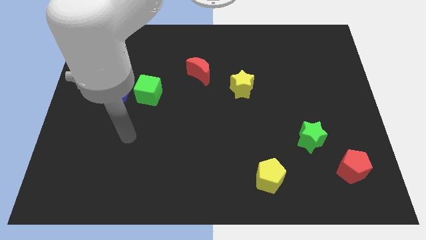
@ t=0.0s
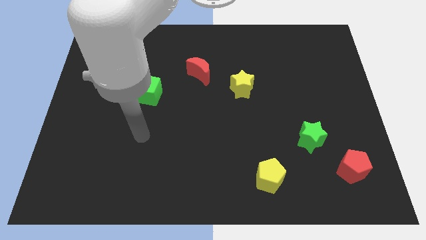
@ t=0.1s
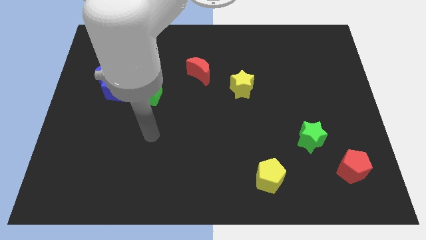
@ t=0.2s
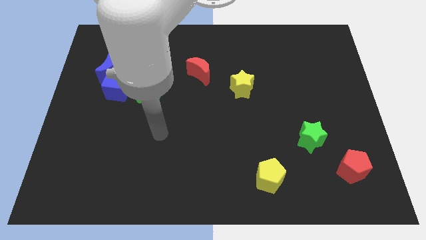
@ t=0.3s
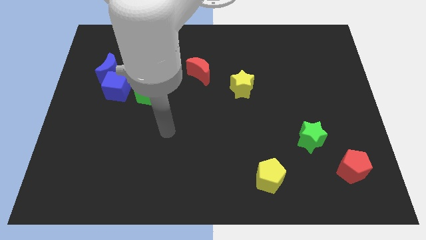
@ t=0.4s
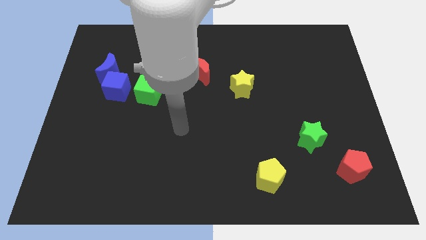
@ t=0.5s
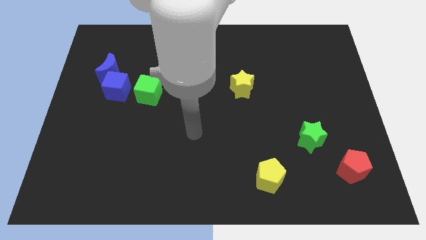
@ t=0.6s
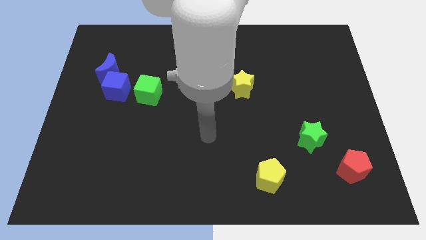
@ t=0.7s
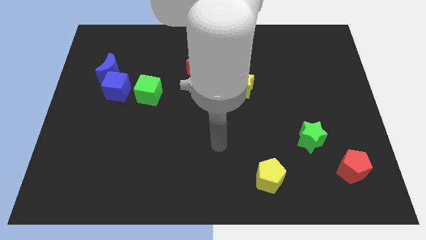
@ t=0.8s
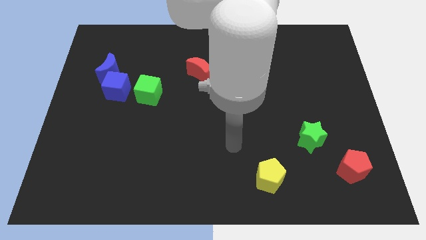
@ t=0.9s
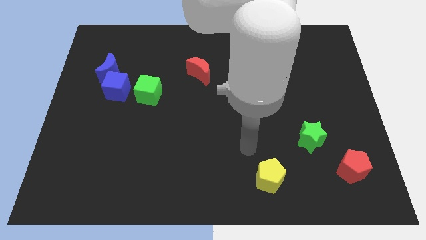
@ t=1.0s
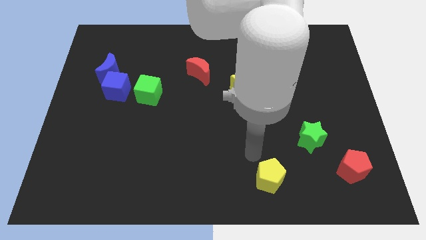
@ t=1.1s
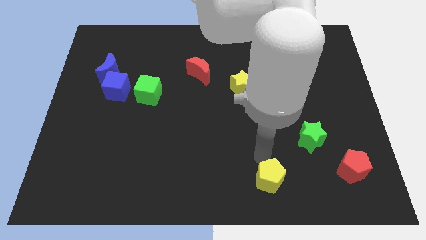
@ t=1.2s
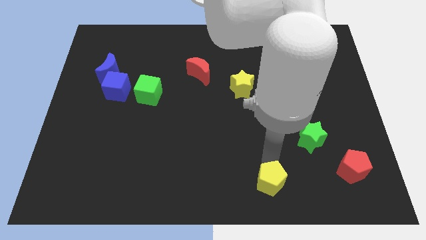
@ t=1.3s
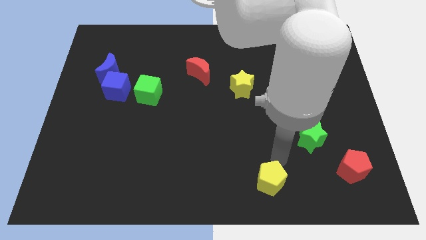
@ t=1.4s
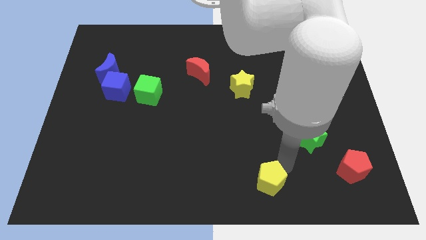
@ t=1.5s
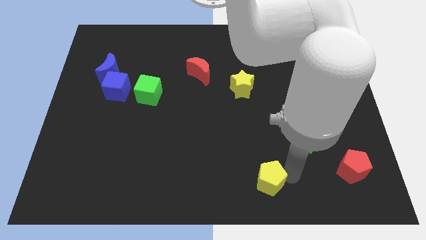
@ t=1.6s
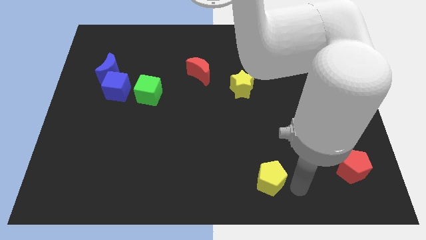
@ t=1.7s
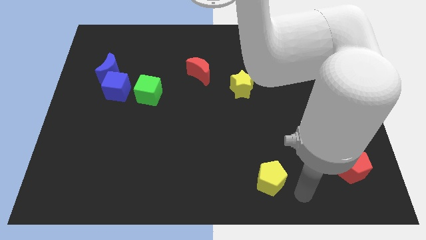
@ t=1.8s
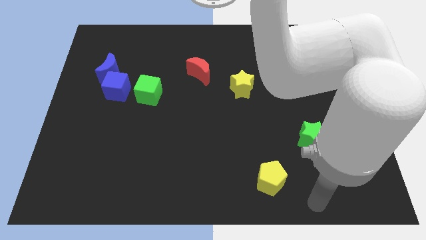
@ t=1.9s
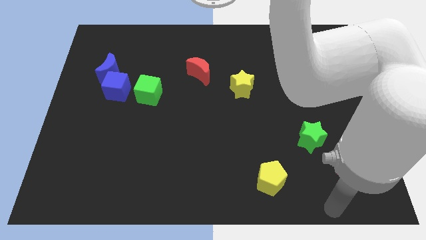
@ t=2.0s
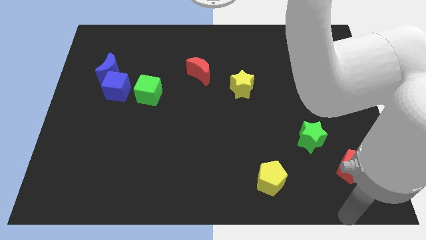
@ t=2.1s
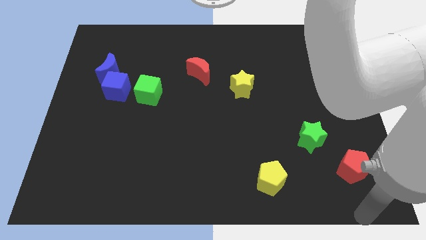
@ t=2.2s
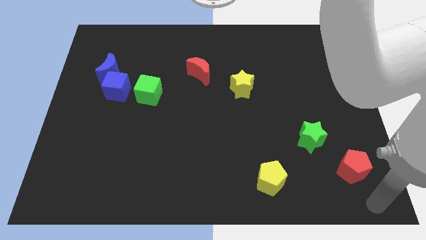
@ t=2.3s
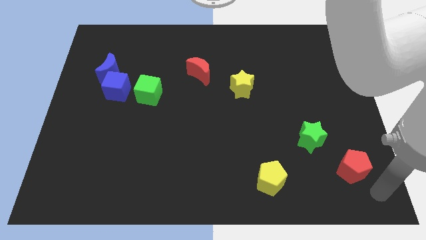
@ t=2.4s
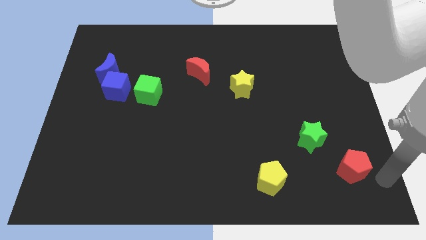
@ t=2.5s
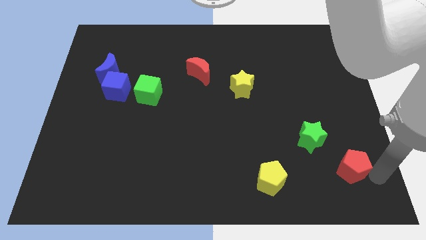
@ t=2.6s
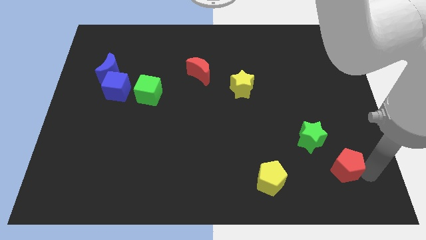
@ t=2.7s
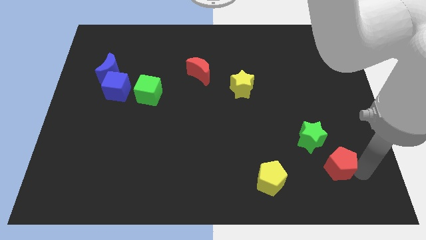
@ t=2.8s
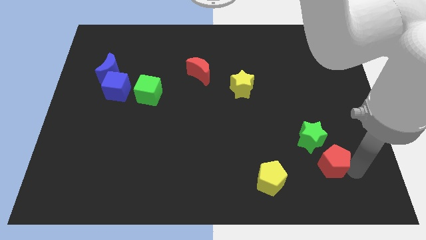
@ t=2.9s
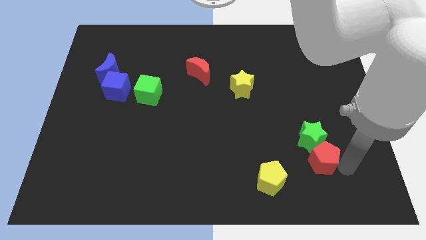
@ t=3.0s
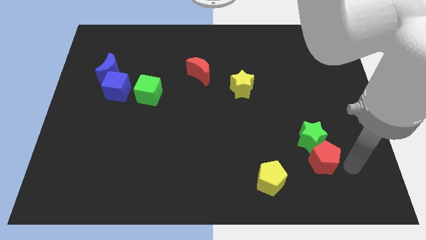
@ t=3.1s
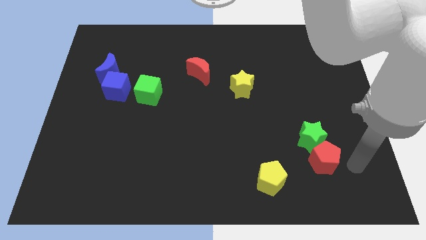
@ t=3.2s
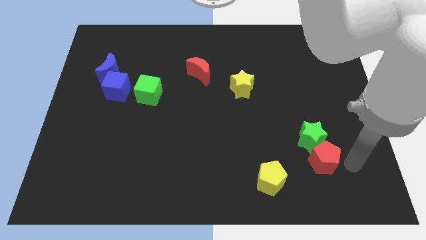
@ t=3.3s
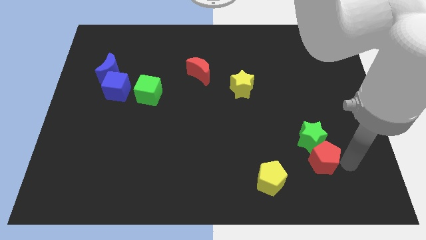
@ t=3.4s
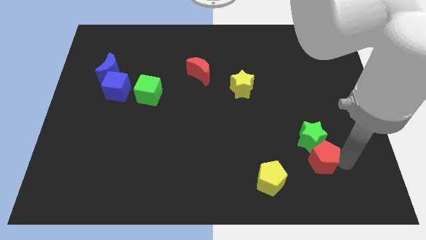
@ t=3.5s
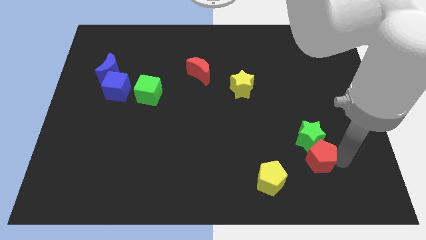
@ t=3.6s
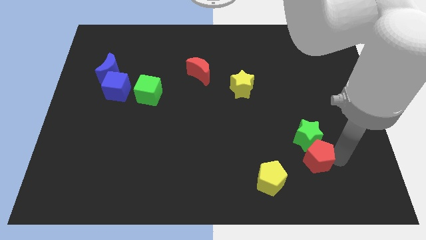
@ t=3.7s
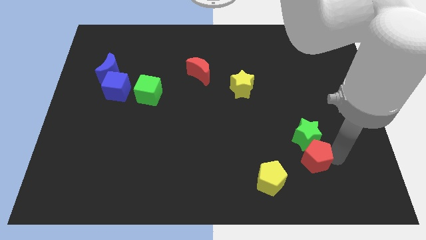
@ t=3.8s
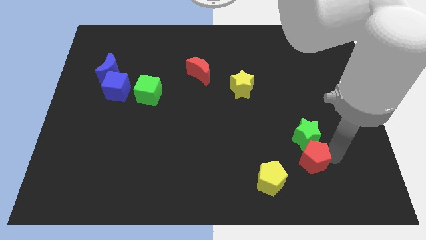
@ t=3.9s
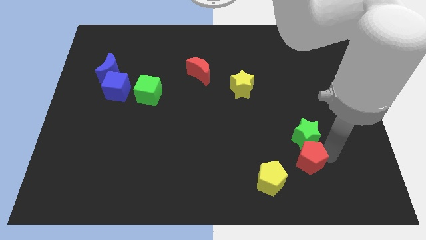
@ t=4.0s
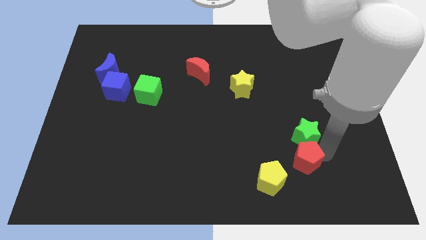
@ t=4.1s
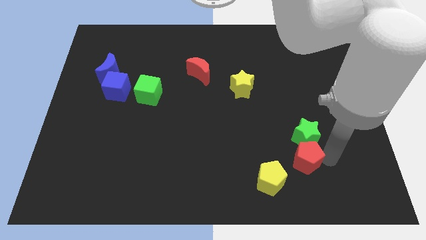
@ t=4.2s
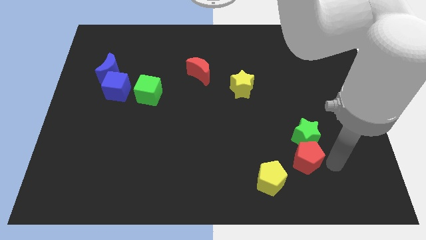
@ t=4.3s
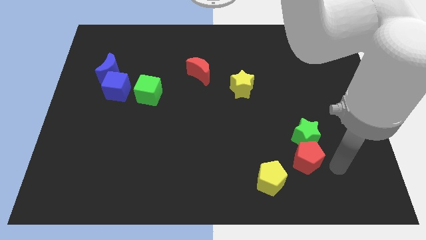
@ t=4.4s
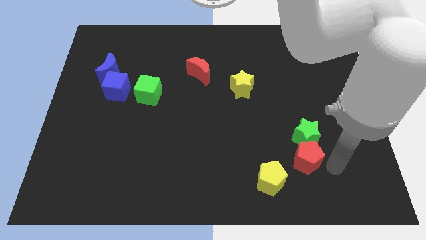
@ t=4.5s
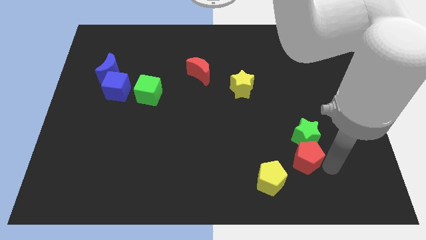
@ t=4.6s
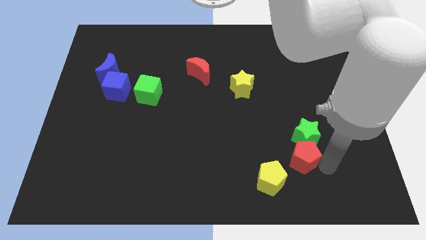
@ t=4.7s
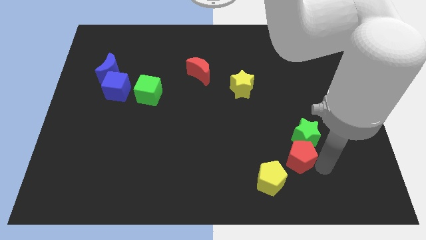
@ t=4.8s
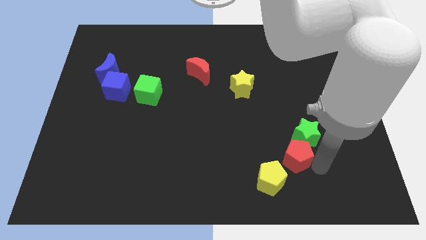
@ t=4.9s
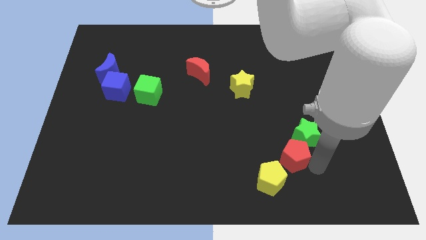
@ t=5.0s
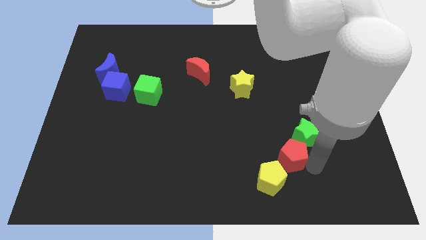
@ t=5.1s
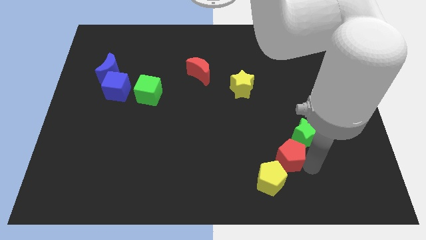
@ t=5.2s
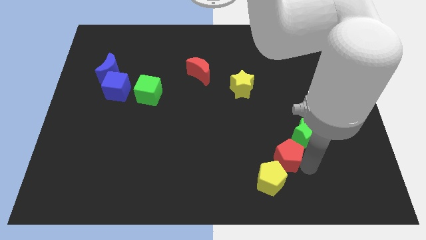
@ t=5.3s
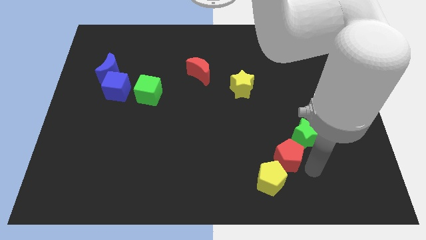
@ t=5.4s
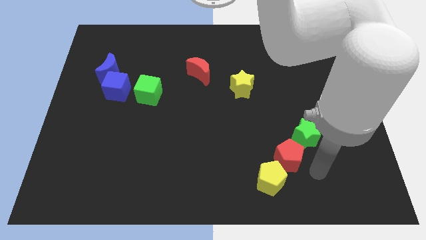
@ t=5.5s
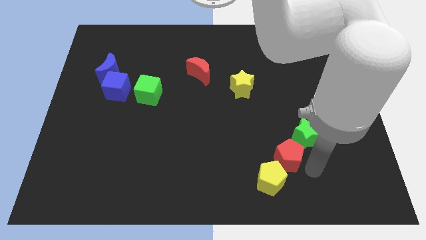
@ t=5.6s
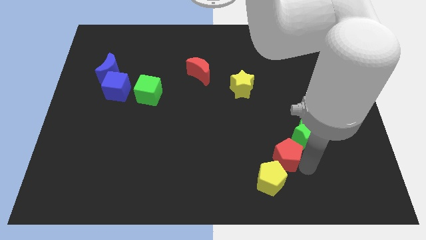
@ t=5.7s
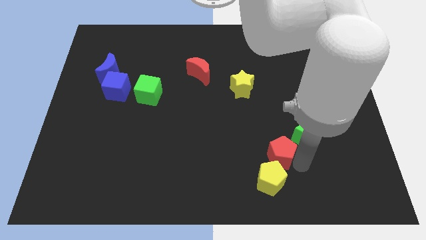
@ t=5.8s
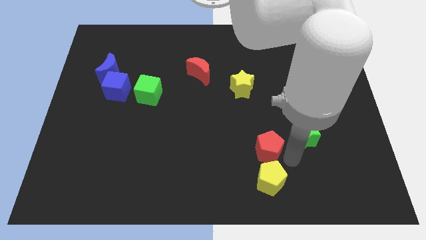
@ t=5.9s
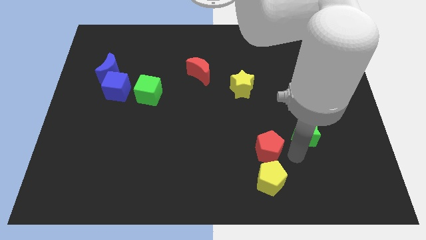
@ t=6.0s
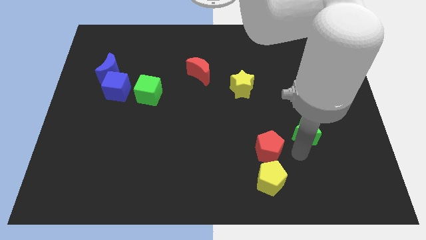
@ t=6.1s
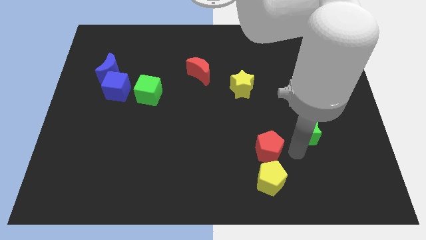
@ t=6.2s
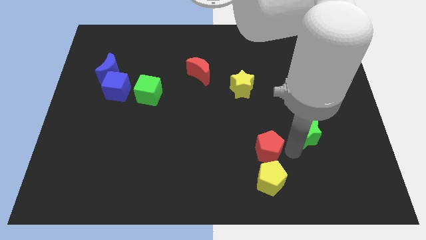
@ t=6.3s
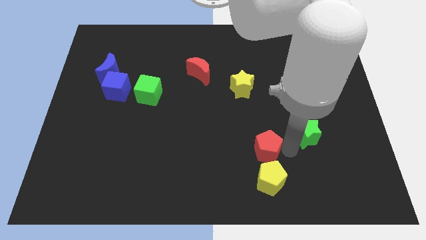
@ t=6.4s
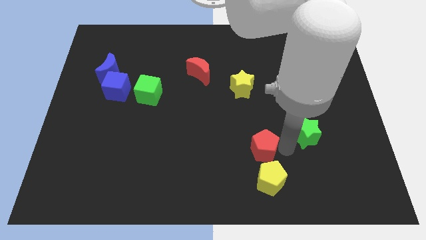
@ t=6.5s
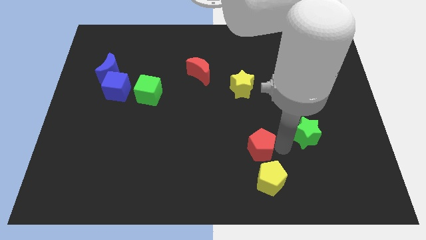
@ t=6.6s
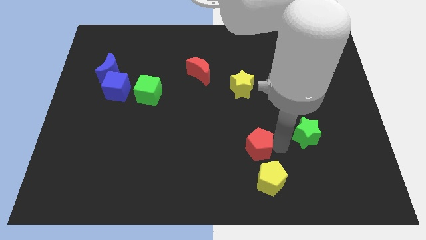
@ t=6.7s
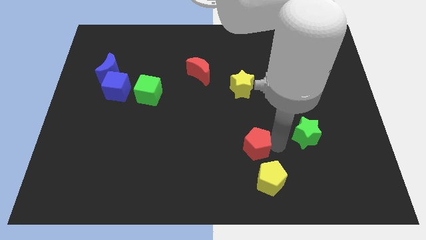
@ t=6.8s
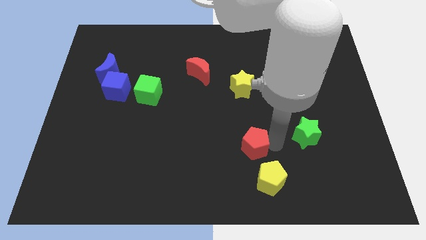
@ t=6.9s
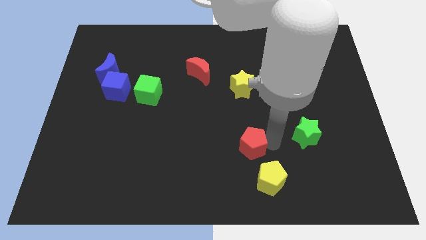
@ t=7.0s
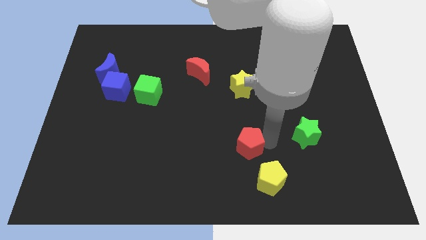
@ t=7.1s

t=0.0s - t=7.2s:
slide the red pentagon to the left

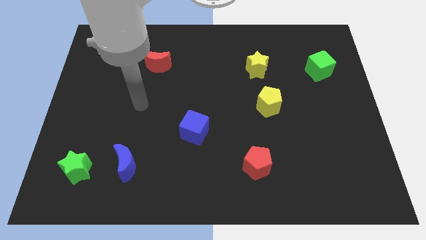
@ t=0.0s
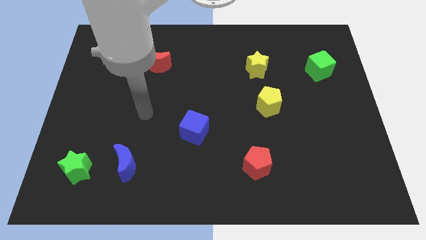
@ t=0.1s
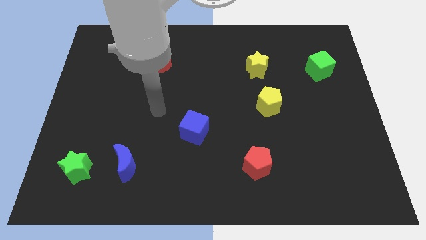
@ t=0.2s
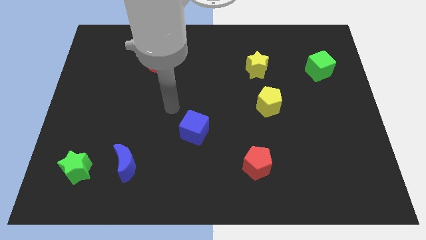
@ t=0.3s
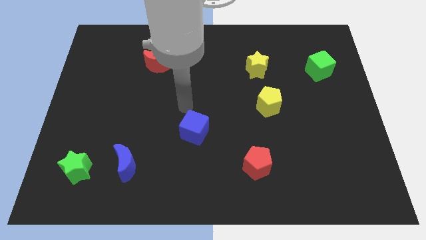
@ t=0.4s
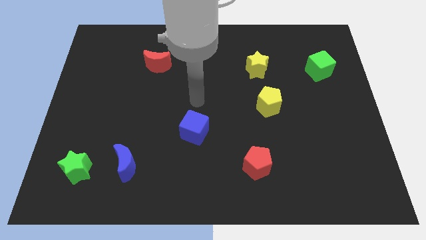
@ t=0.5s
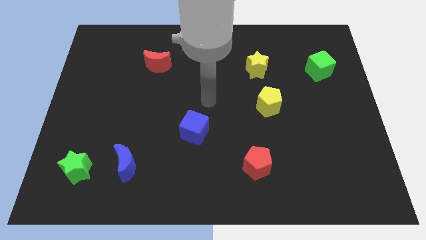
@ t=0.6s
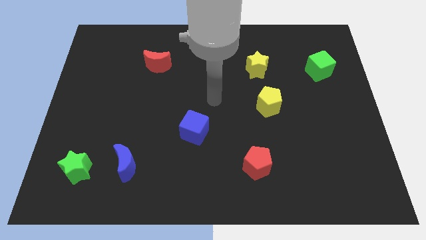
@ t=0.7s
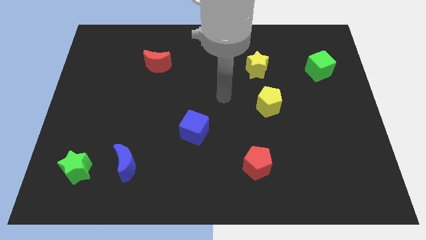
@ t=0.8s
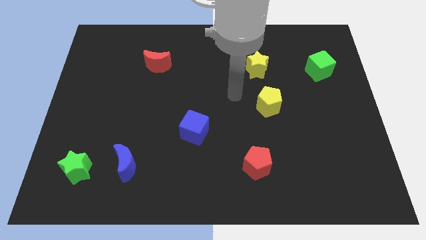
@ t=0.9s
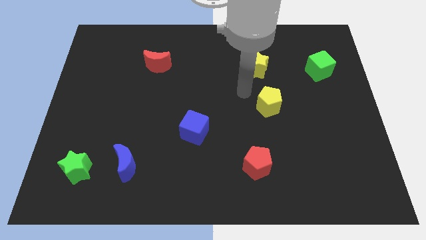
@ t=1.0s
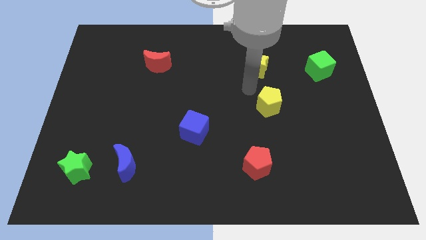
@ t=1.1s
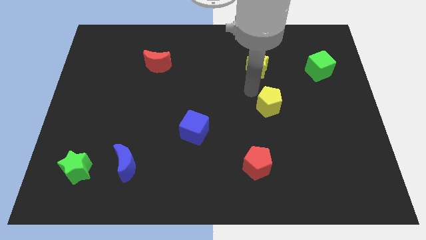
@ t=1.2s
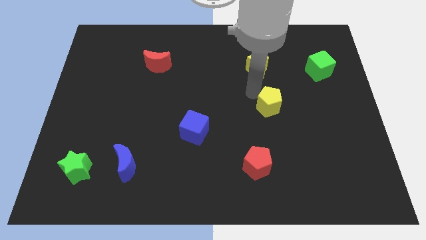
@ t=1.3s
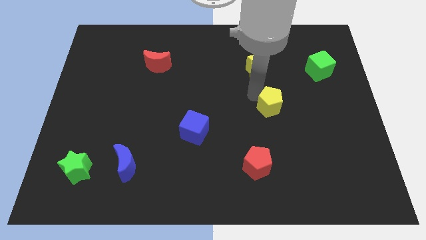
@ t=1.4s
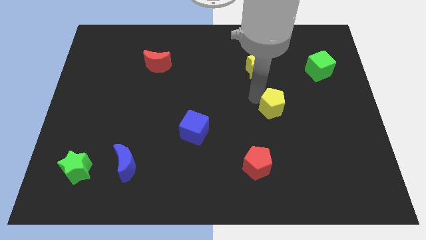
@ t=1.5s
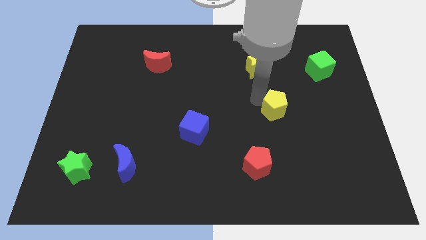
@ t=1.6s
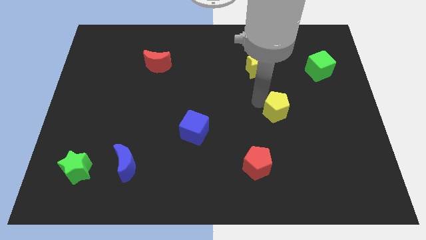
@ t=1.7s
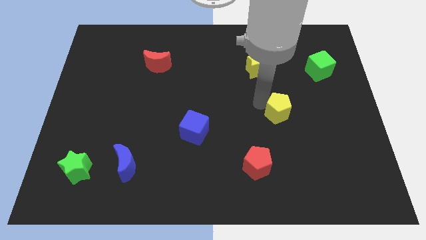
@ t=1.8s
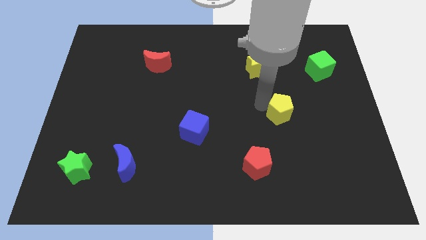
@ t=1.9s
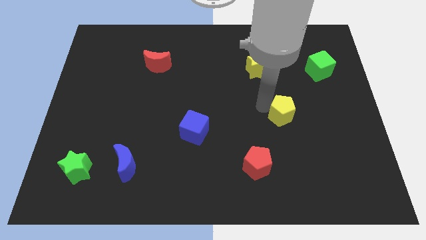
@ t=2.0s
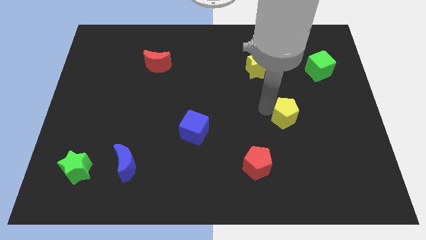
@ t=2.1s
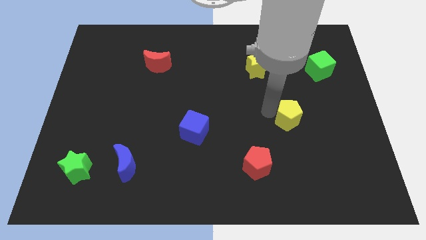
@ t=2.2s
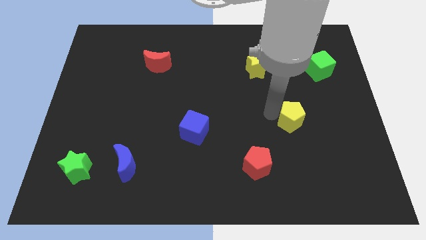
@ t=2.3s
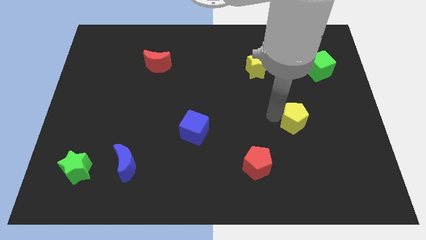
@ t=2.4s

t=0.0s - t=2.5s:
slightly move the yellow pentagon diagonally down and to the right
